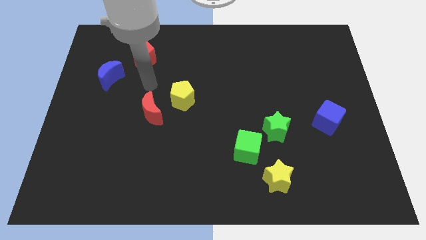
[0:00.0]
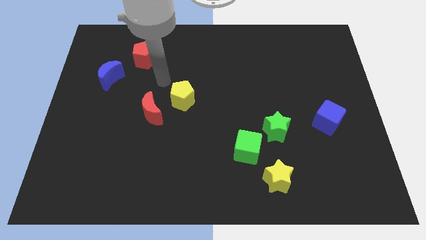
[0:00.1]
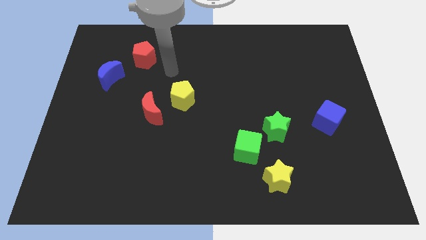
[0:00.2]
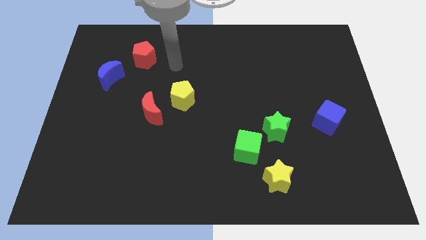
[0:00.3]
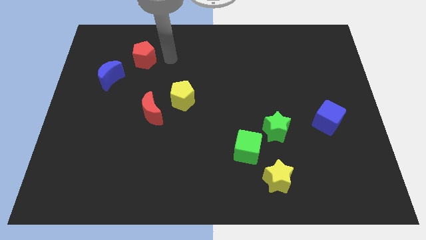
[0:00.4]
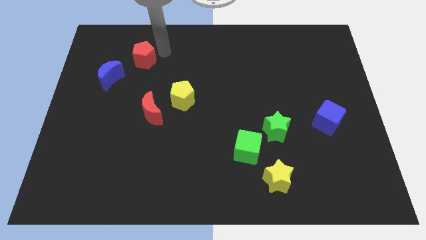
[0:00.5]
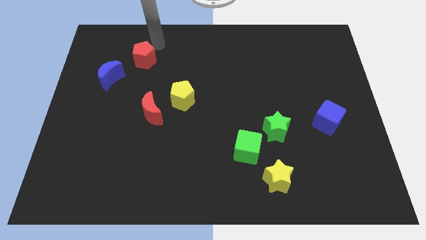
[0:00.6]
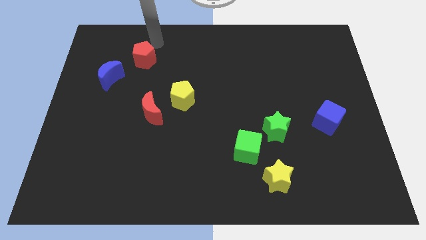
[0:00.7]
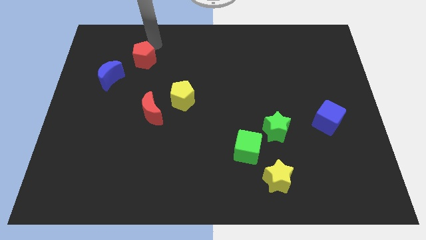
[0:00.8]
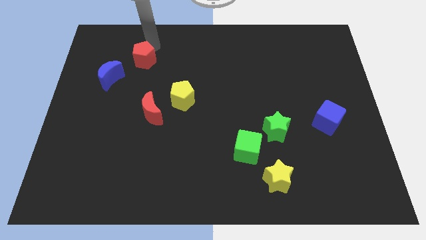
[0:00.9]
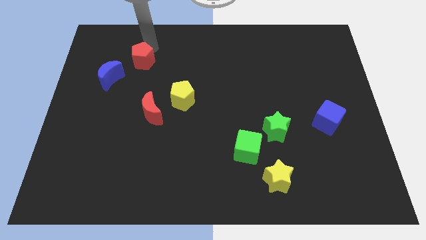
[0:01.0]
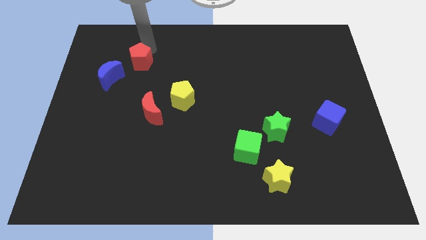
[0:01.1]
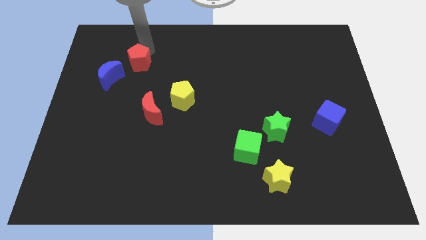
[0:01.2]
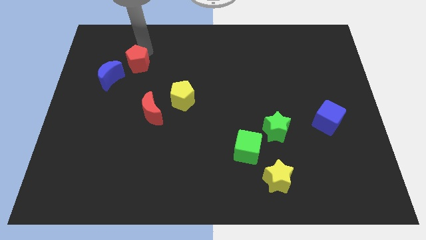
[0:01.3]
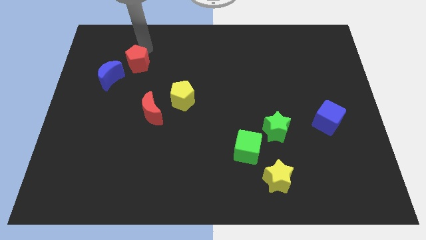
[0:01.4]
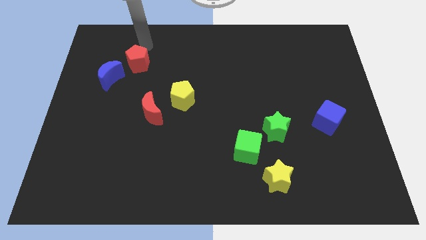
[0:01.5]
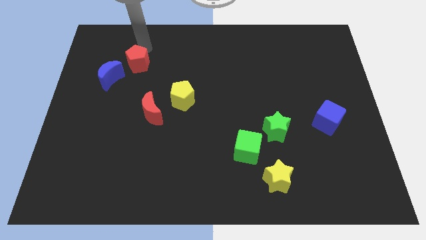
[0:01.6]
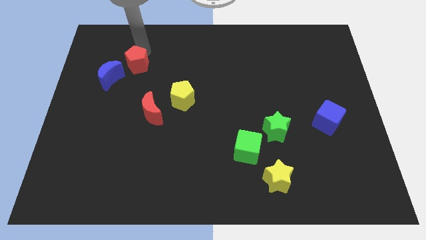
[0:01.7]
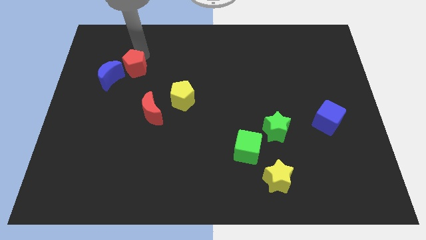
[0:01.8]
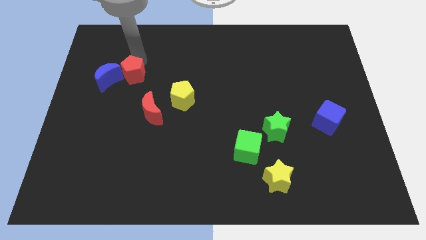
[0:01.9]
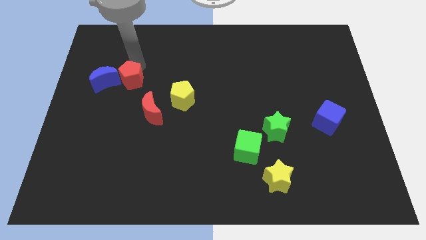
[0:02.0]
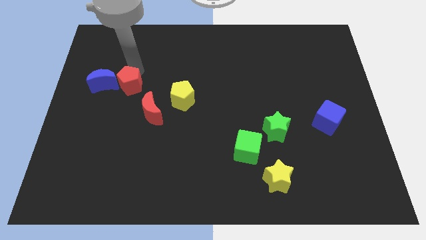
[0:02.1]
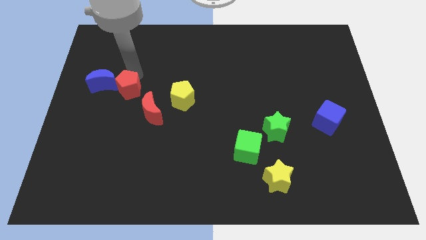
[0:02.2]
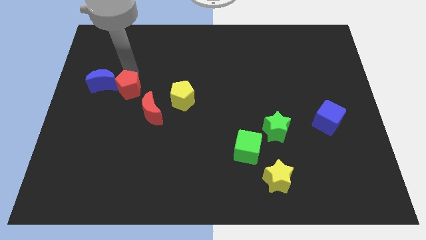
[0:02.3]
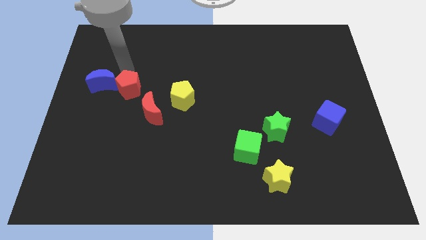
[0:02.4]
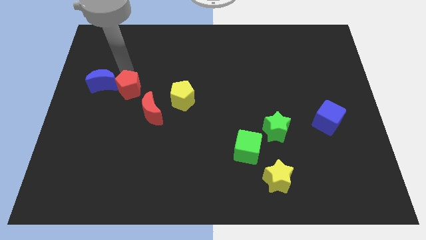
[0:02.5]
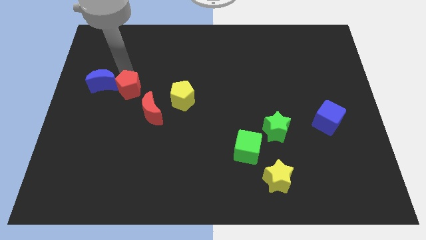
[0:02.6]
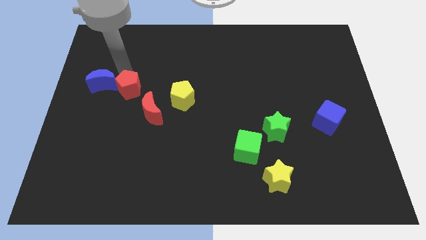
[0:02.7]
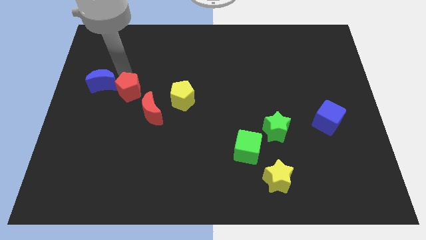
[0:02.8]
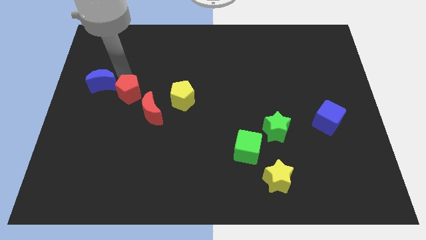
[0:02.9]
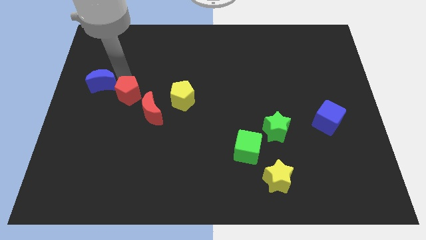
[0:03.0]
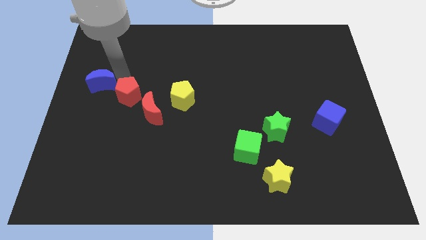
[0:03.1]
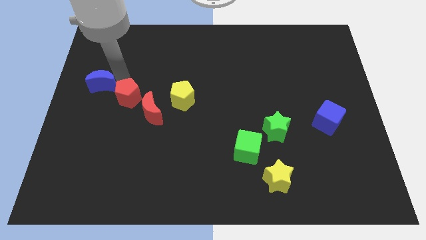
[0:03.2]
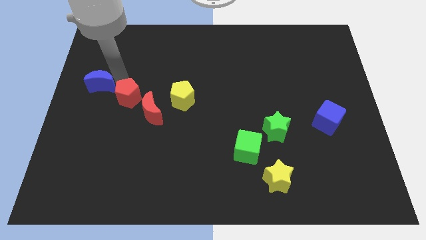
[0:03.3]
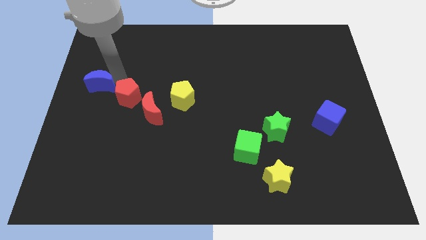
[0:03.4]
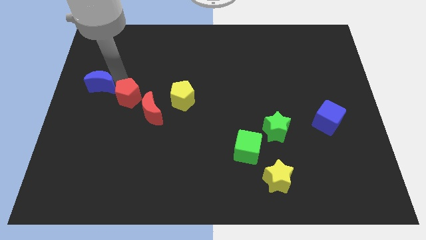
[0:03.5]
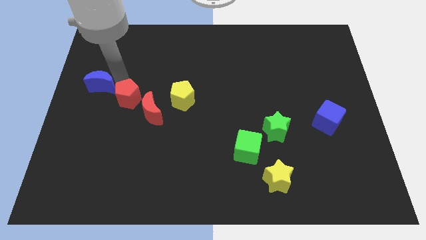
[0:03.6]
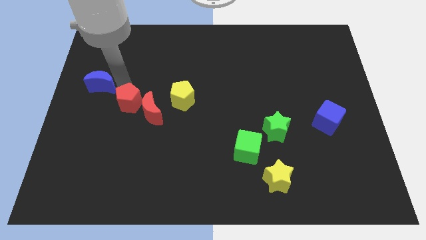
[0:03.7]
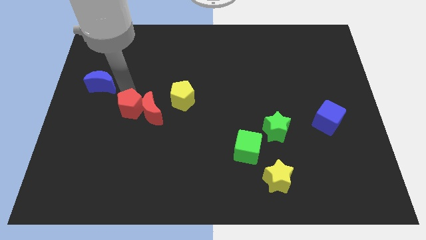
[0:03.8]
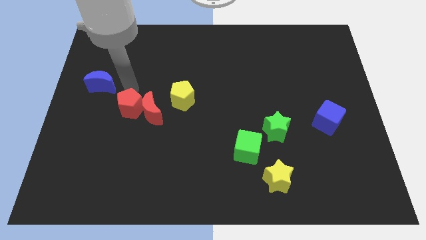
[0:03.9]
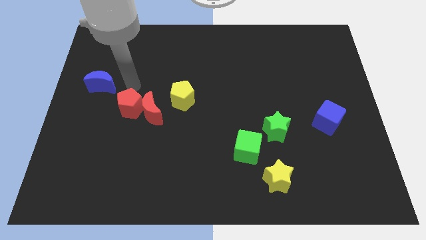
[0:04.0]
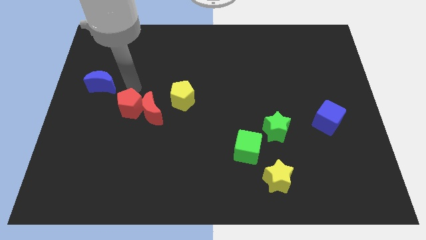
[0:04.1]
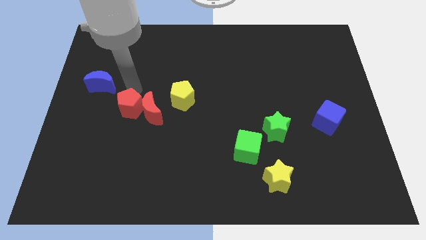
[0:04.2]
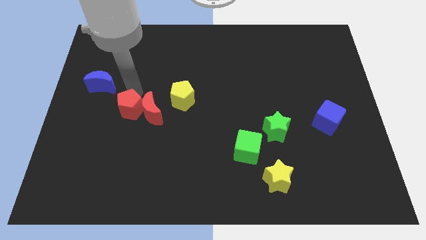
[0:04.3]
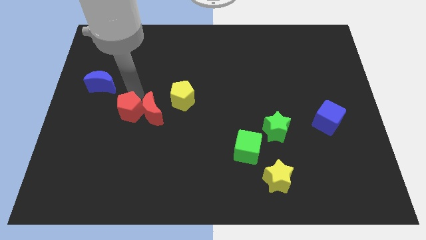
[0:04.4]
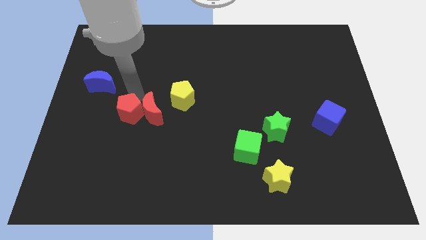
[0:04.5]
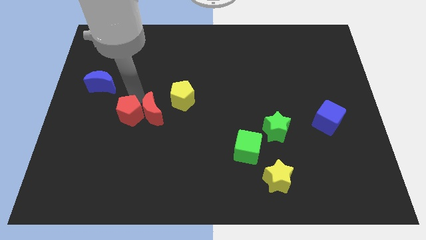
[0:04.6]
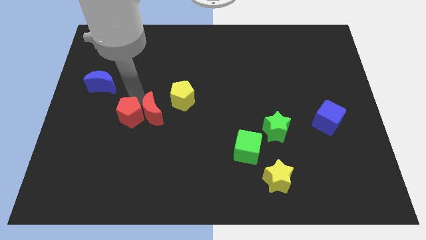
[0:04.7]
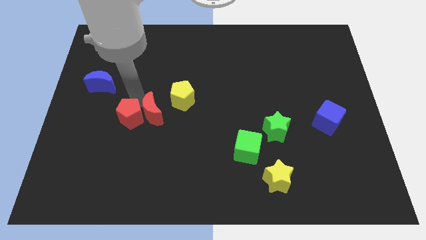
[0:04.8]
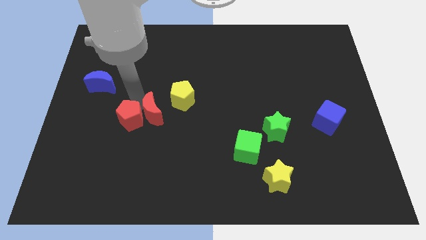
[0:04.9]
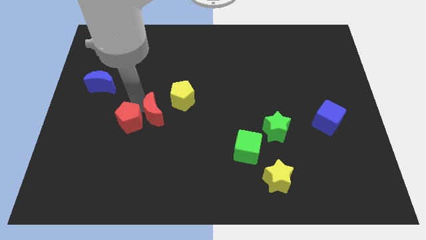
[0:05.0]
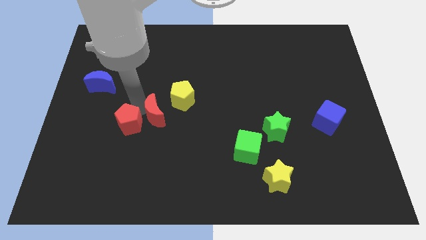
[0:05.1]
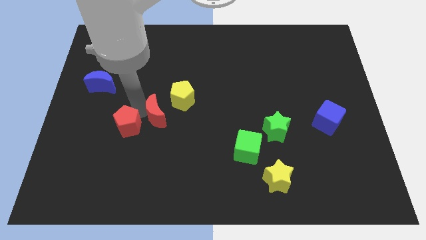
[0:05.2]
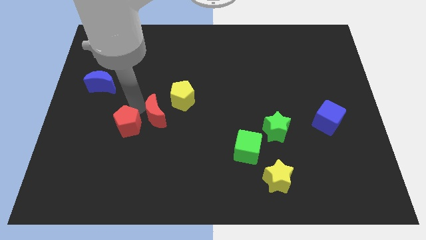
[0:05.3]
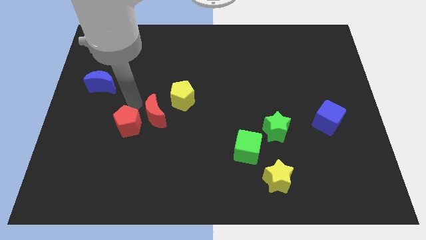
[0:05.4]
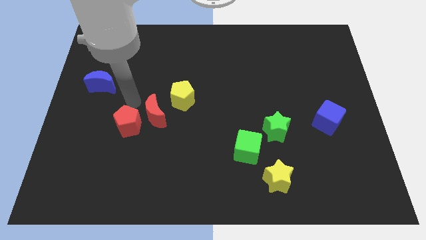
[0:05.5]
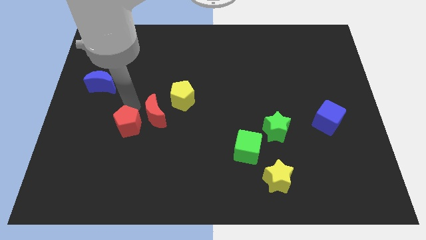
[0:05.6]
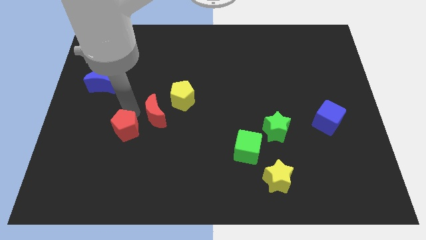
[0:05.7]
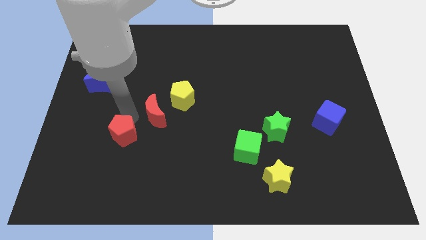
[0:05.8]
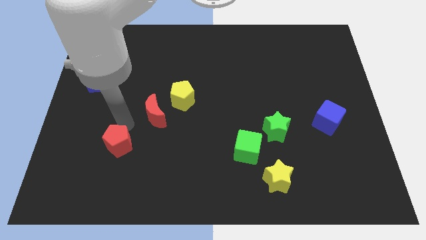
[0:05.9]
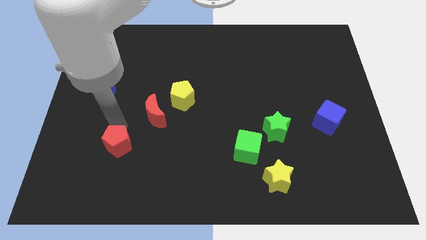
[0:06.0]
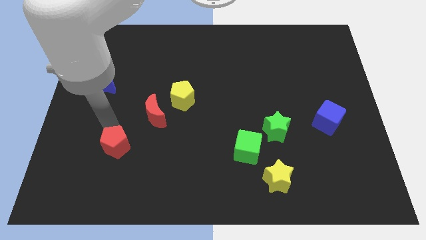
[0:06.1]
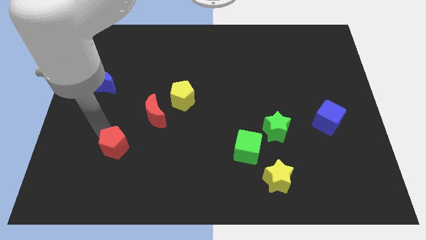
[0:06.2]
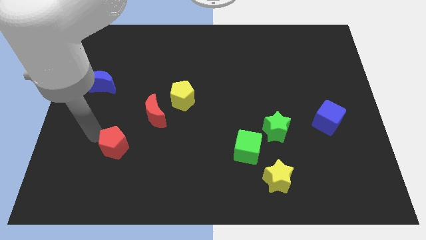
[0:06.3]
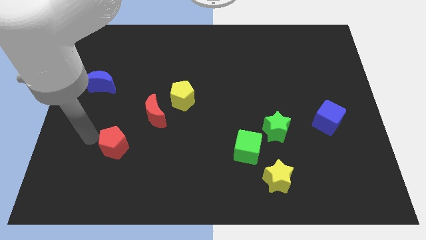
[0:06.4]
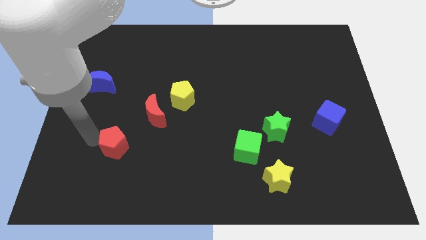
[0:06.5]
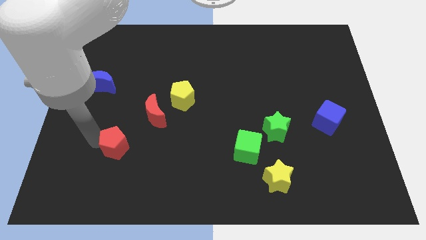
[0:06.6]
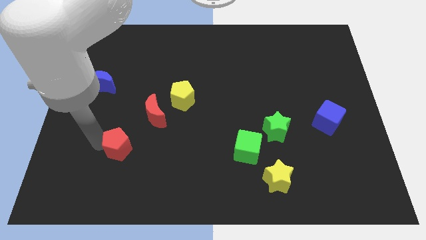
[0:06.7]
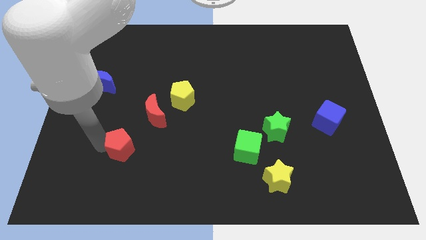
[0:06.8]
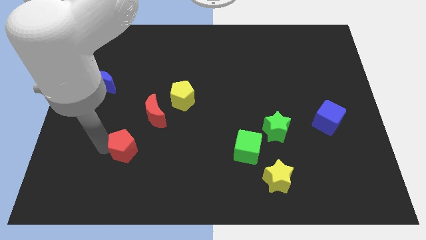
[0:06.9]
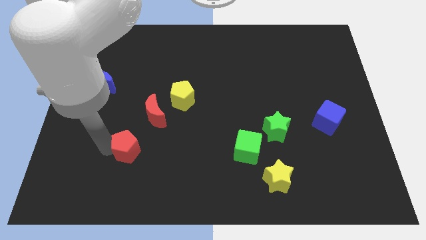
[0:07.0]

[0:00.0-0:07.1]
put the red pentagon below the red moon

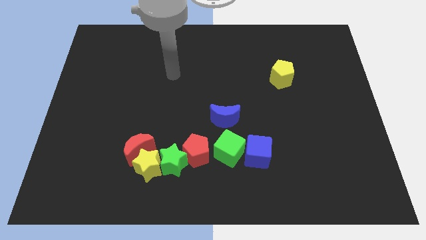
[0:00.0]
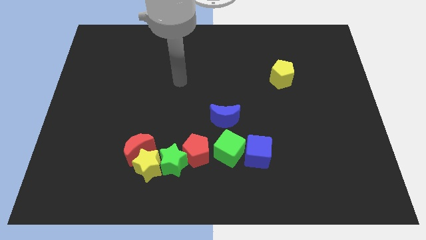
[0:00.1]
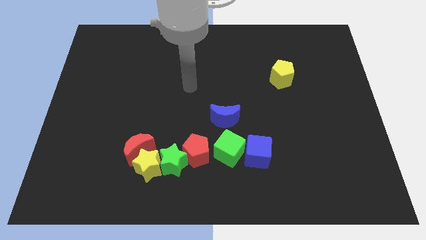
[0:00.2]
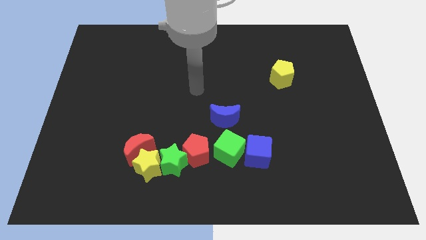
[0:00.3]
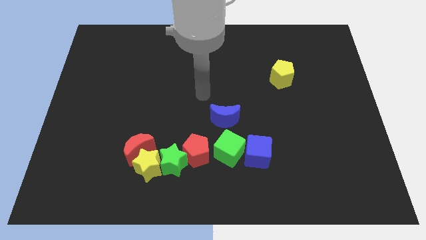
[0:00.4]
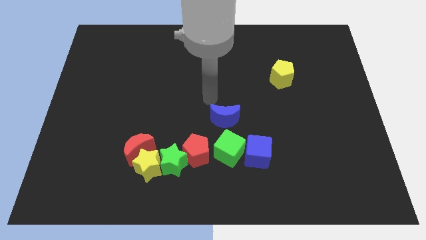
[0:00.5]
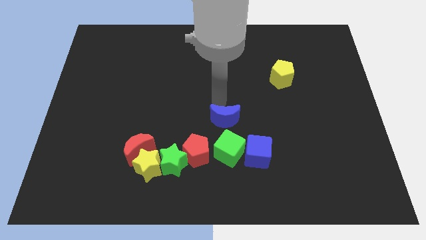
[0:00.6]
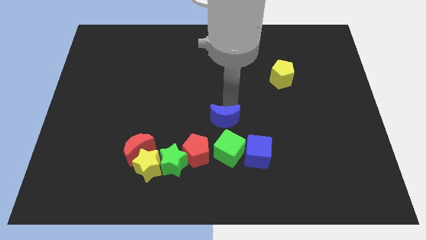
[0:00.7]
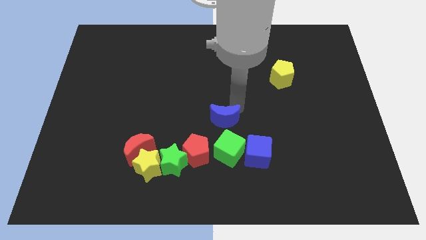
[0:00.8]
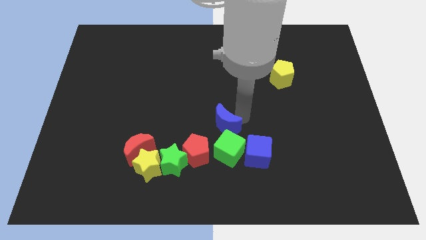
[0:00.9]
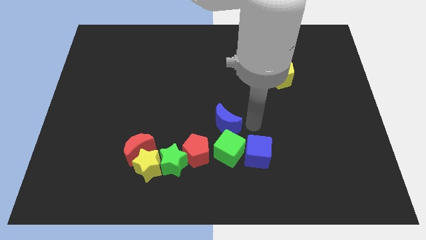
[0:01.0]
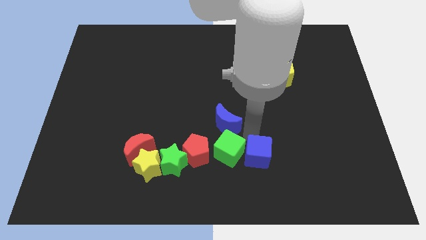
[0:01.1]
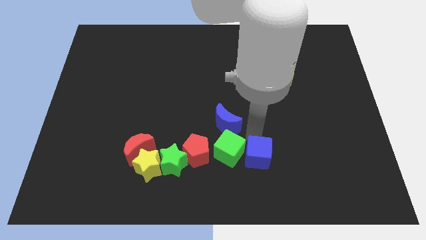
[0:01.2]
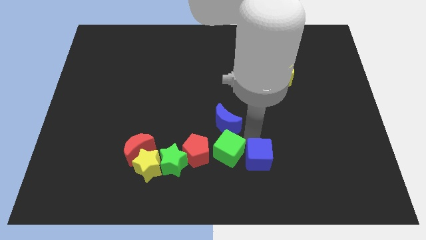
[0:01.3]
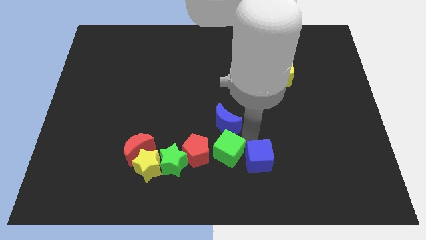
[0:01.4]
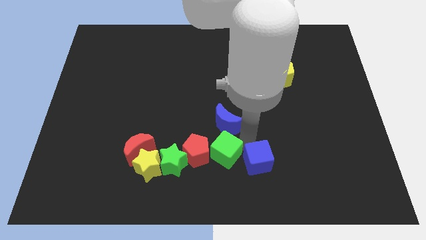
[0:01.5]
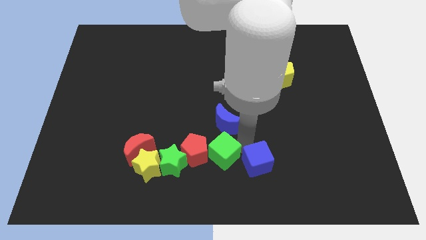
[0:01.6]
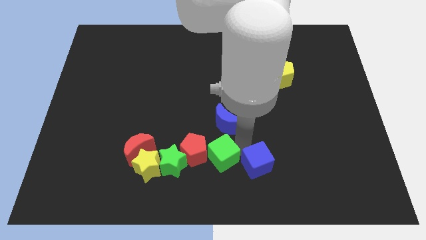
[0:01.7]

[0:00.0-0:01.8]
slide the green cube right of the yellow star
